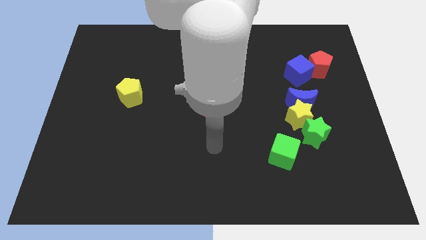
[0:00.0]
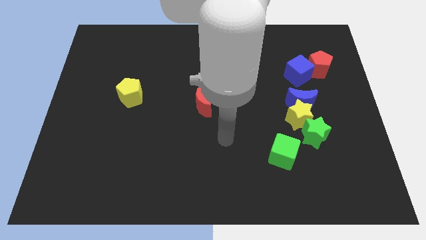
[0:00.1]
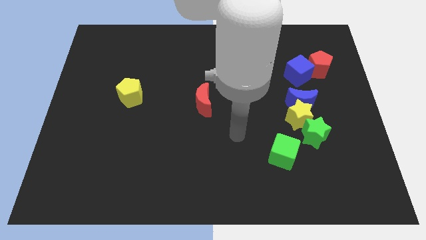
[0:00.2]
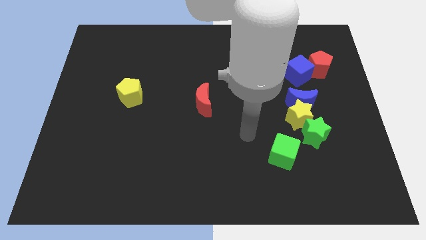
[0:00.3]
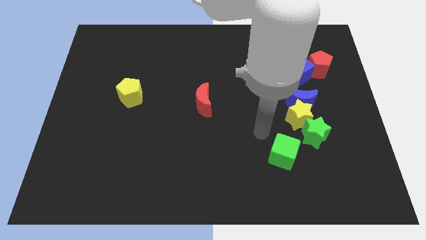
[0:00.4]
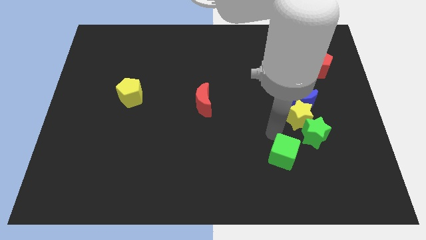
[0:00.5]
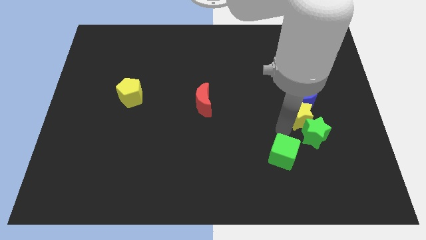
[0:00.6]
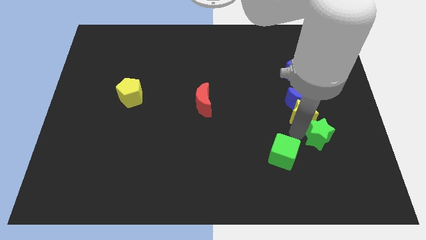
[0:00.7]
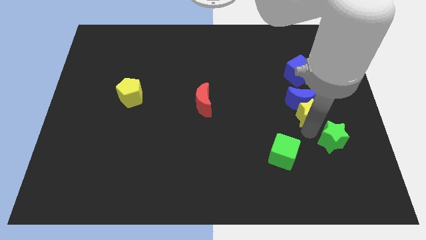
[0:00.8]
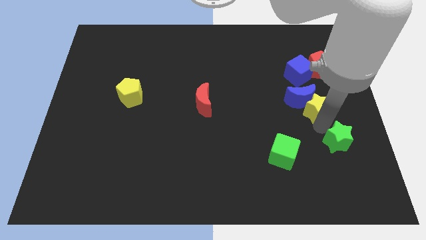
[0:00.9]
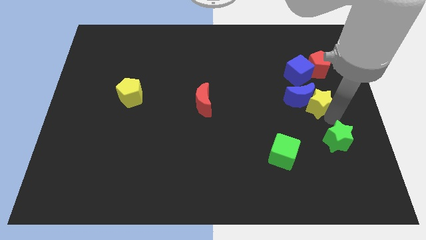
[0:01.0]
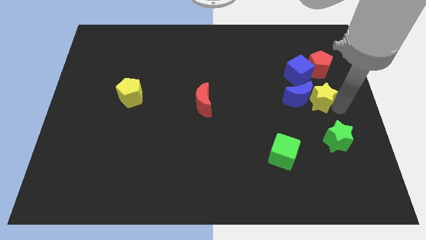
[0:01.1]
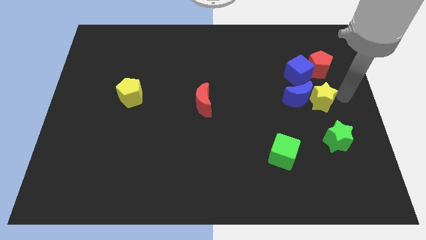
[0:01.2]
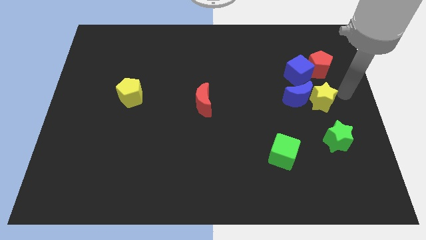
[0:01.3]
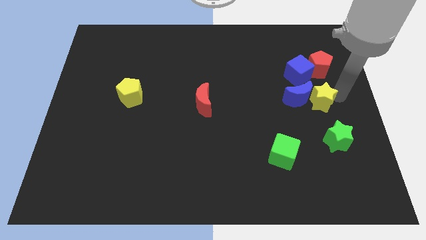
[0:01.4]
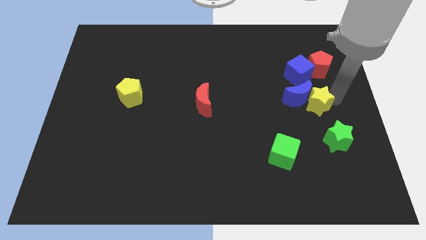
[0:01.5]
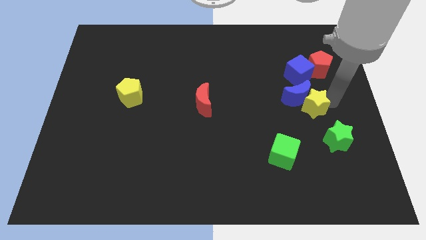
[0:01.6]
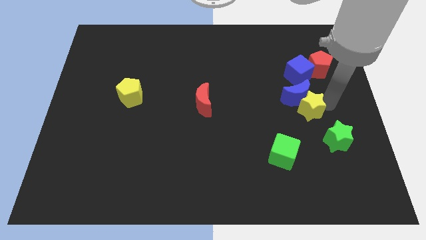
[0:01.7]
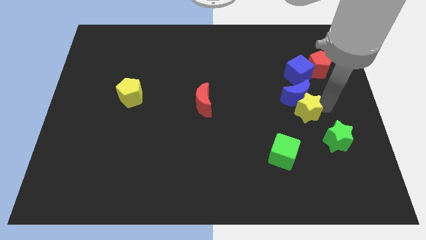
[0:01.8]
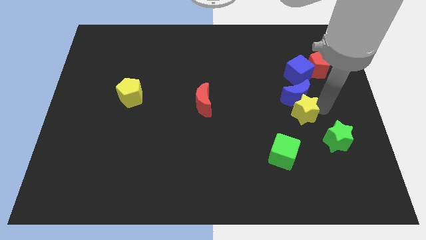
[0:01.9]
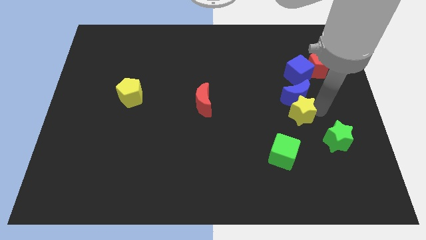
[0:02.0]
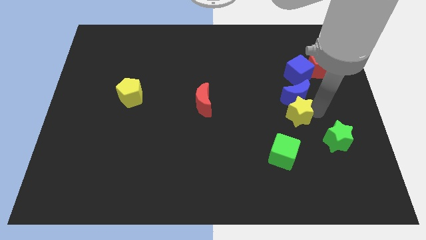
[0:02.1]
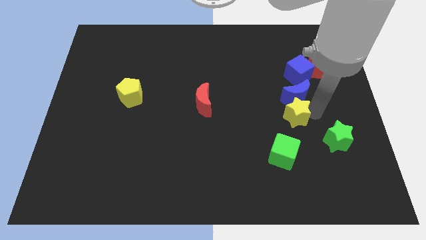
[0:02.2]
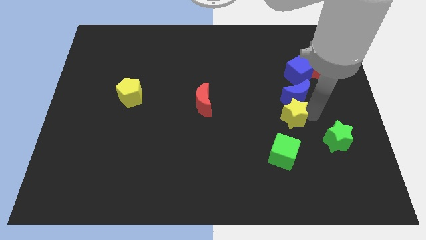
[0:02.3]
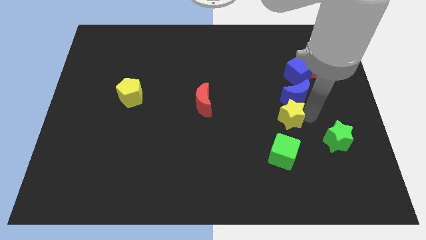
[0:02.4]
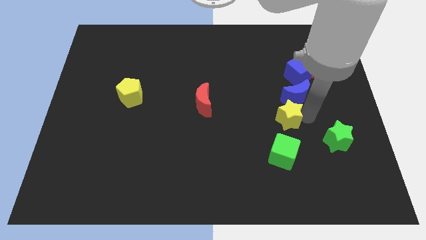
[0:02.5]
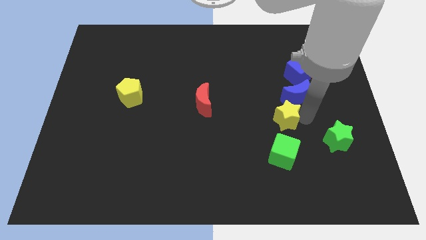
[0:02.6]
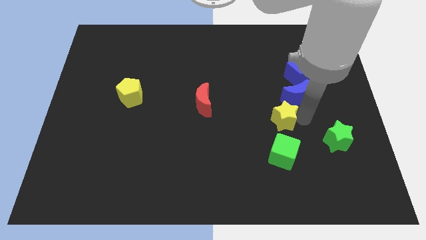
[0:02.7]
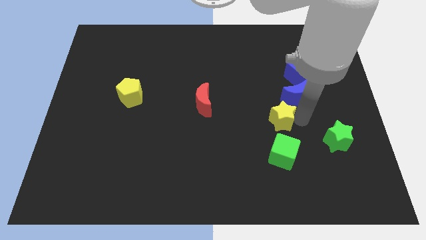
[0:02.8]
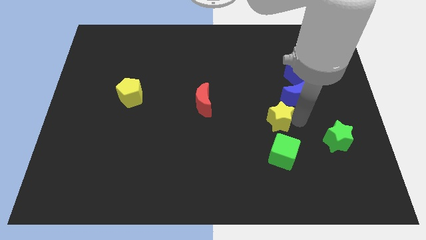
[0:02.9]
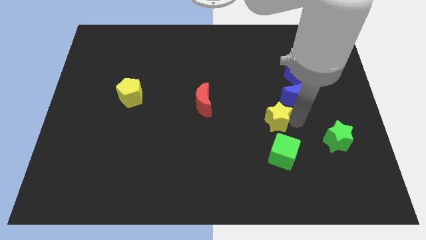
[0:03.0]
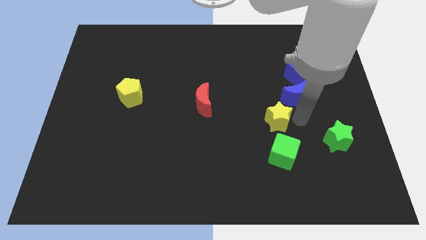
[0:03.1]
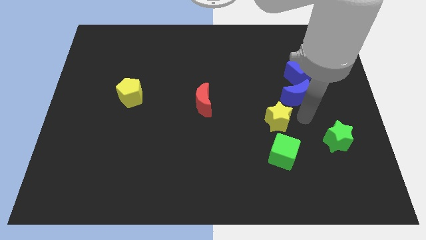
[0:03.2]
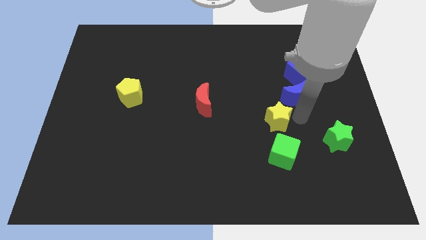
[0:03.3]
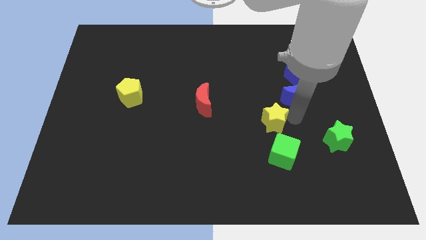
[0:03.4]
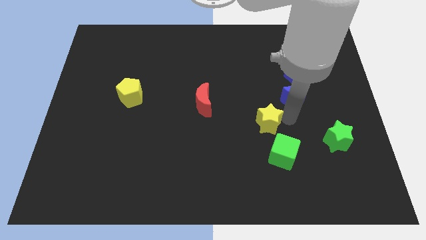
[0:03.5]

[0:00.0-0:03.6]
separate the yellow star from the blue moon and green star

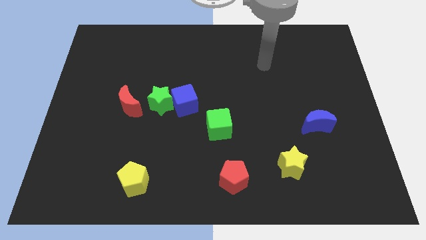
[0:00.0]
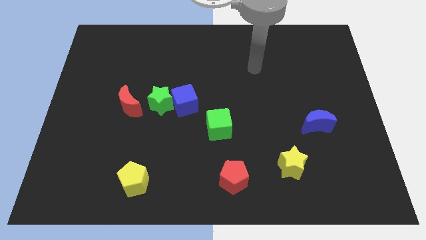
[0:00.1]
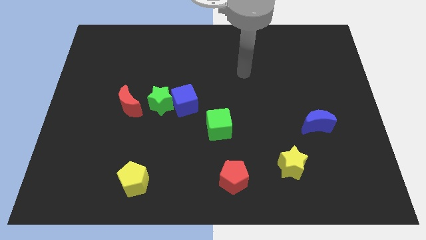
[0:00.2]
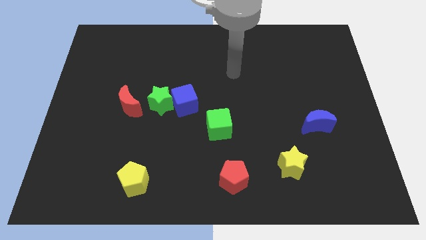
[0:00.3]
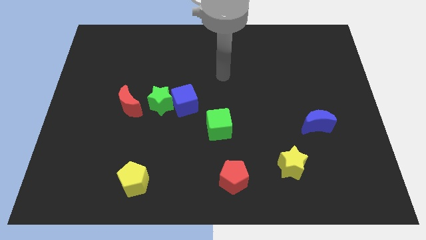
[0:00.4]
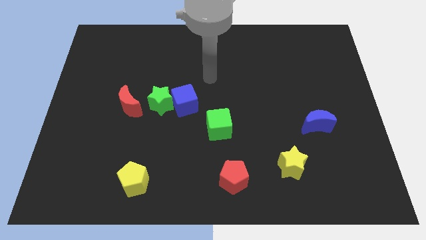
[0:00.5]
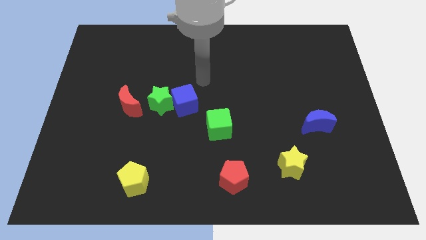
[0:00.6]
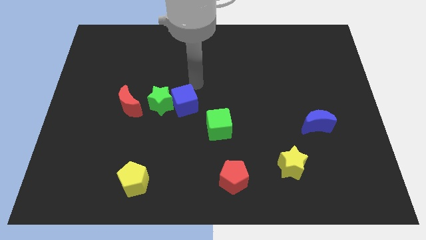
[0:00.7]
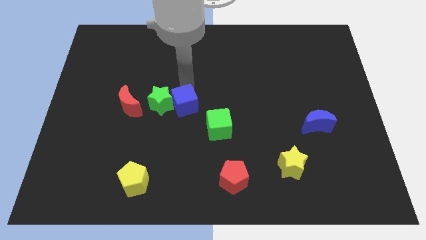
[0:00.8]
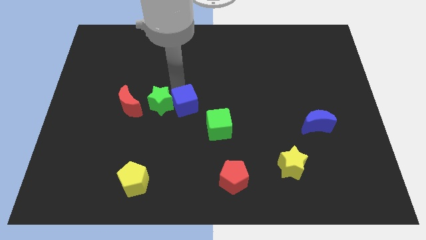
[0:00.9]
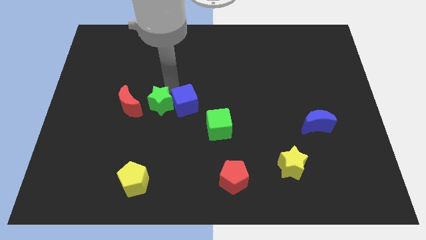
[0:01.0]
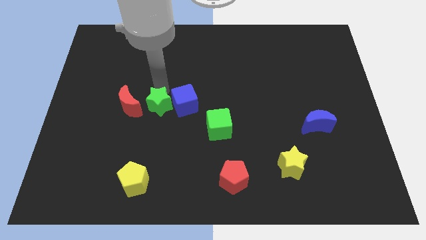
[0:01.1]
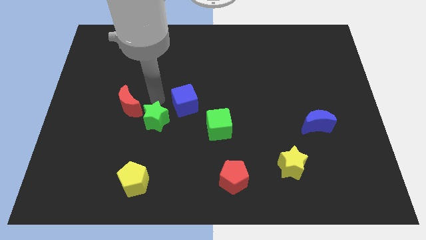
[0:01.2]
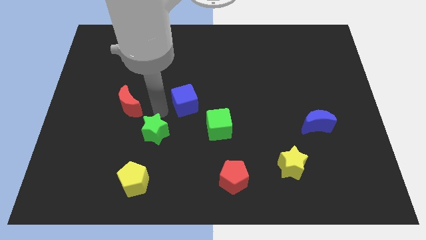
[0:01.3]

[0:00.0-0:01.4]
separate the blue cube from the green star

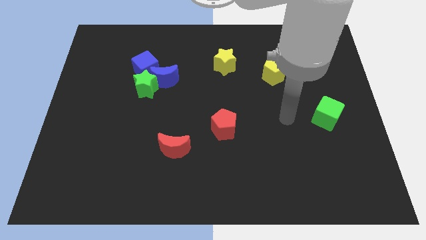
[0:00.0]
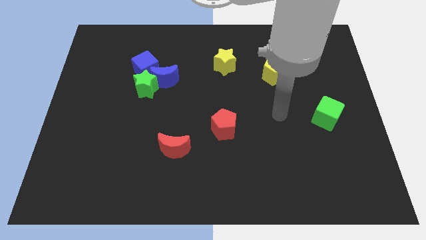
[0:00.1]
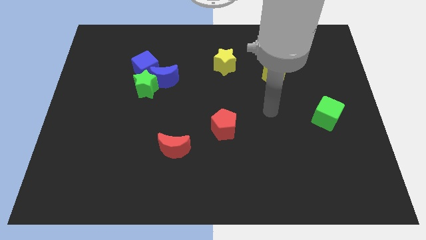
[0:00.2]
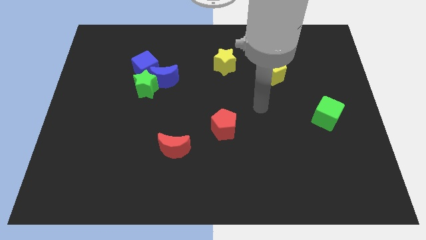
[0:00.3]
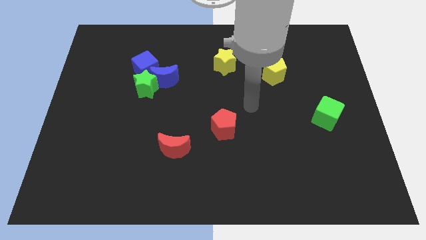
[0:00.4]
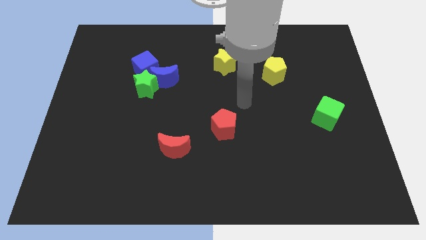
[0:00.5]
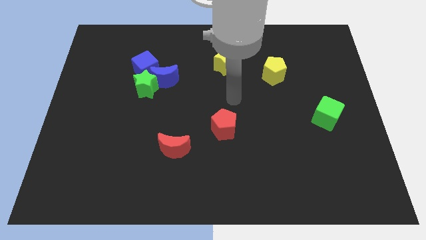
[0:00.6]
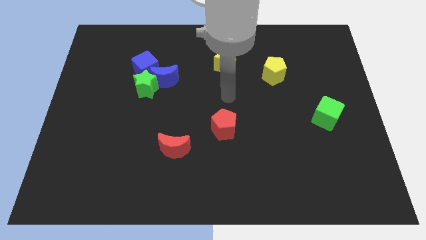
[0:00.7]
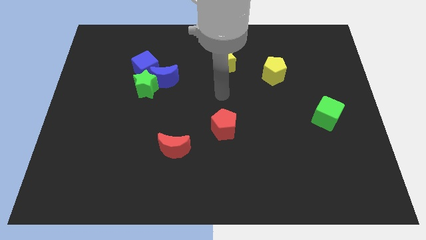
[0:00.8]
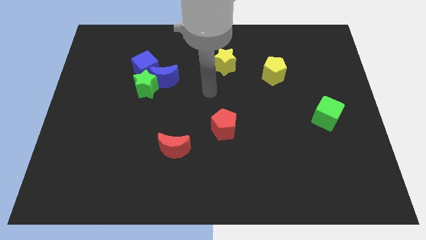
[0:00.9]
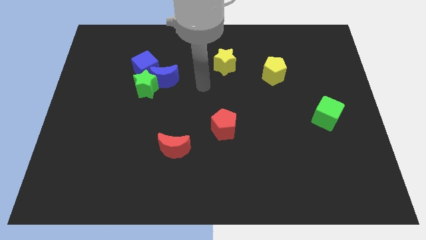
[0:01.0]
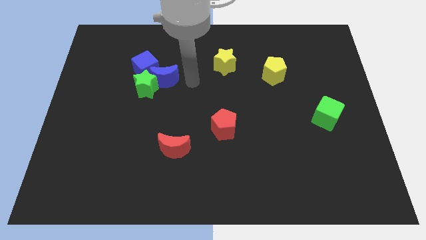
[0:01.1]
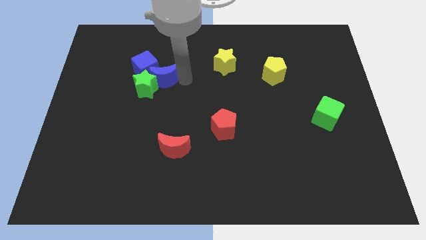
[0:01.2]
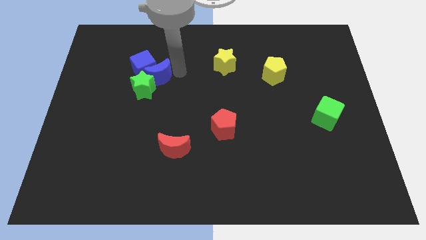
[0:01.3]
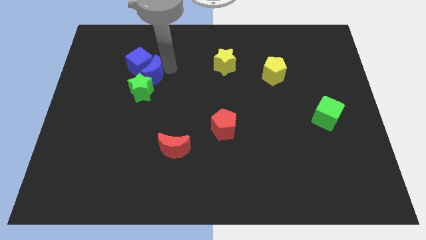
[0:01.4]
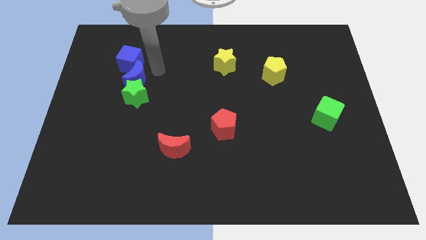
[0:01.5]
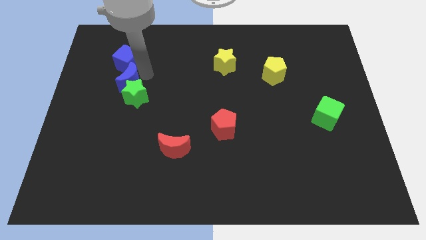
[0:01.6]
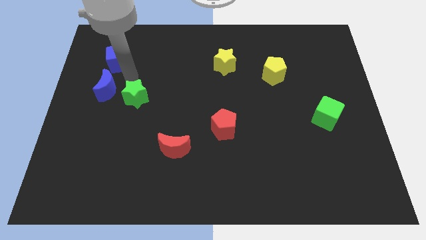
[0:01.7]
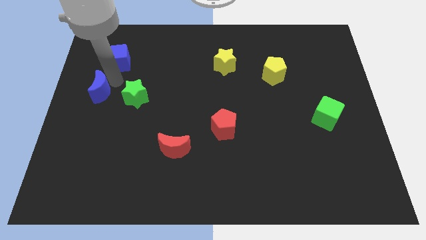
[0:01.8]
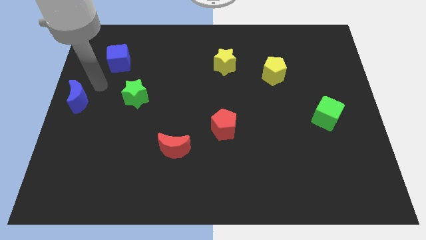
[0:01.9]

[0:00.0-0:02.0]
separate the blue moon from the green star and blue cube

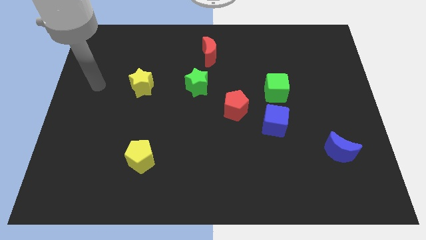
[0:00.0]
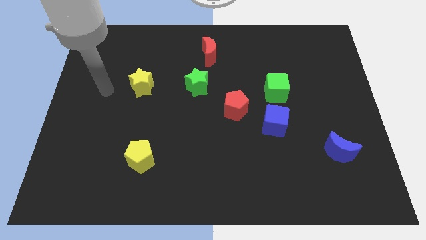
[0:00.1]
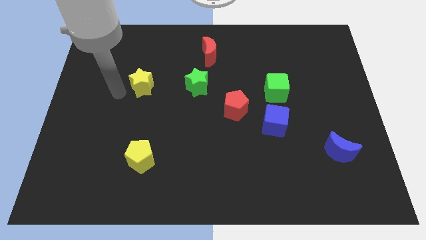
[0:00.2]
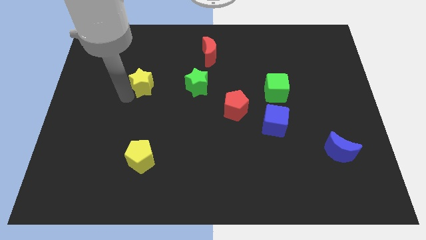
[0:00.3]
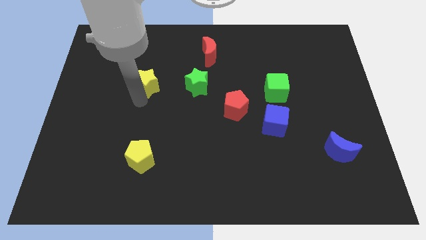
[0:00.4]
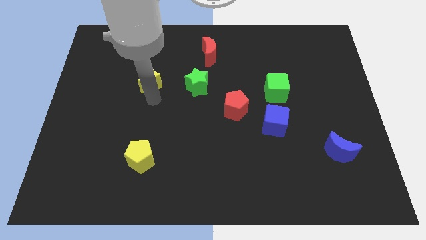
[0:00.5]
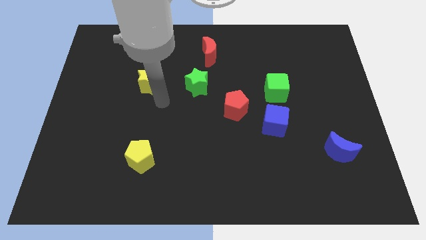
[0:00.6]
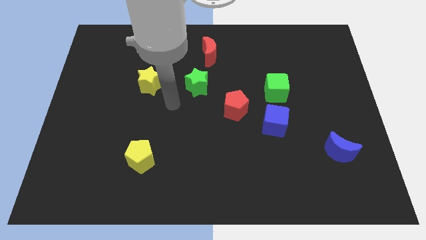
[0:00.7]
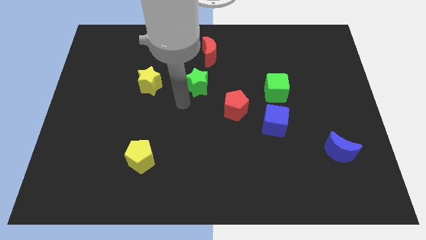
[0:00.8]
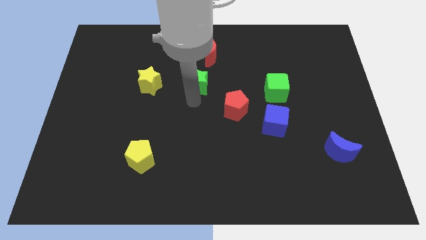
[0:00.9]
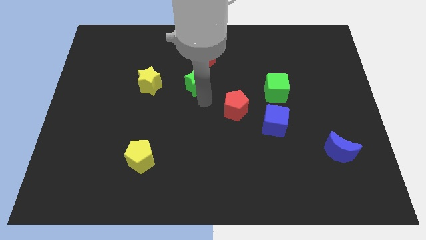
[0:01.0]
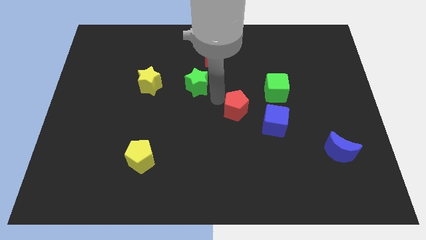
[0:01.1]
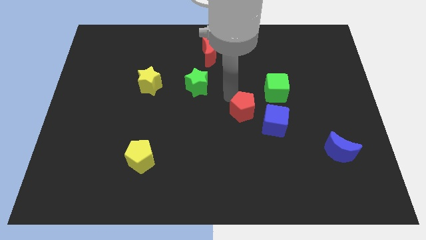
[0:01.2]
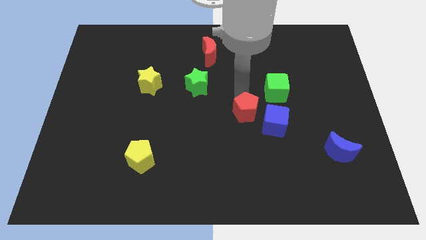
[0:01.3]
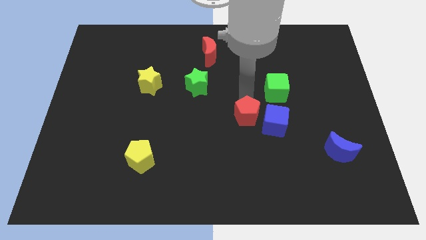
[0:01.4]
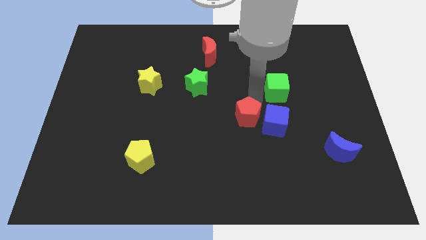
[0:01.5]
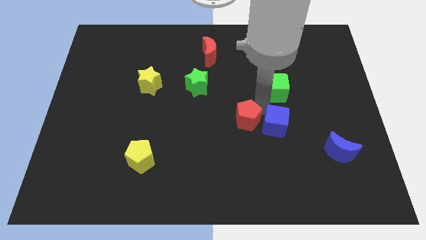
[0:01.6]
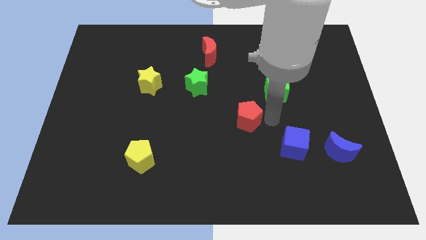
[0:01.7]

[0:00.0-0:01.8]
separate the red pentagon from the blue cube

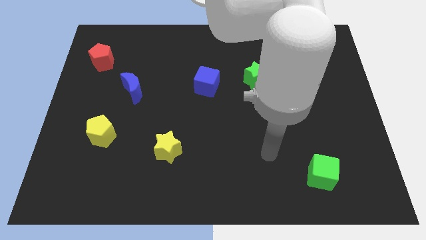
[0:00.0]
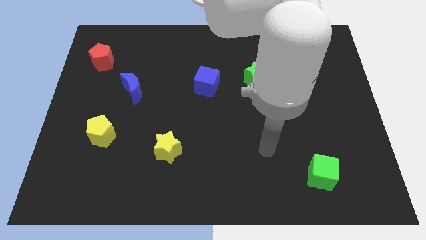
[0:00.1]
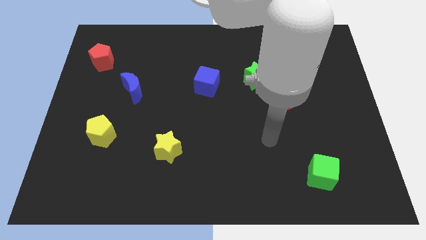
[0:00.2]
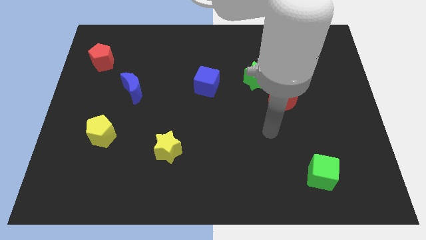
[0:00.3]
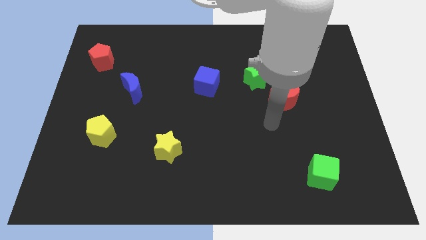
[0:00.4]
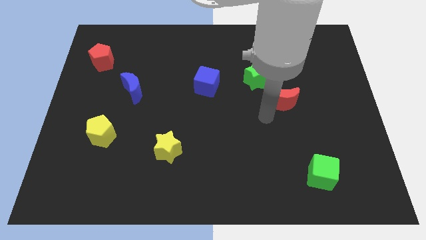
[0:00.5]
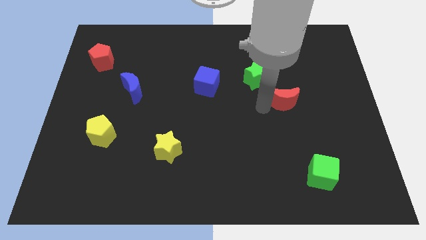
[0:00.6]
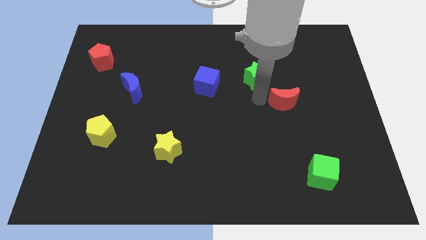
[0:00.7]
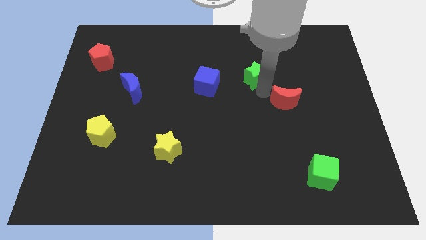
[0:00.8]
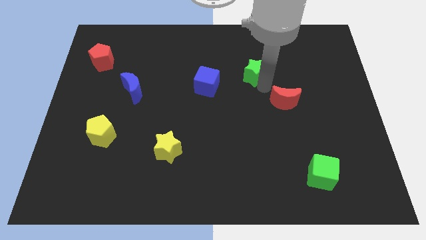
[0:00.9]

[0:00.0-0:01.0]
separate the red moon from the green star
